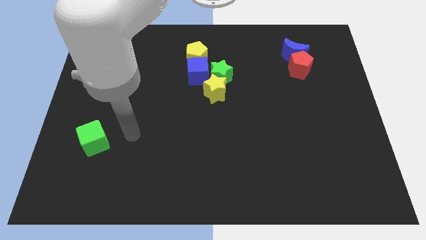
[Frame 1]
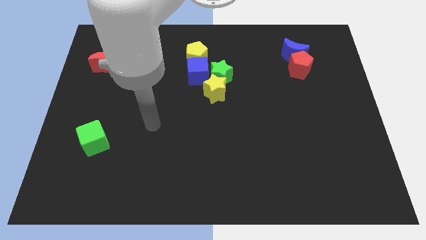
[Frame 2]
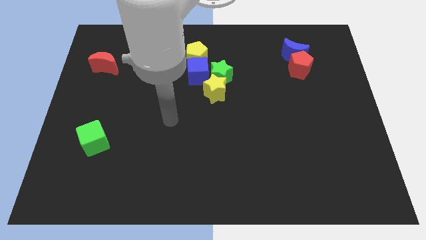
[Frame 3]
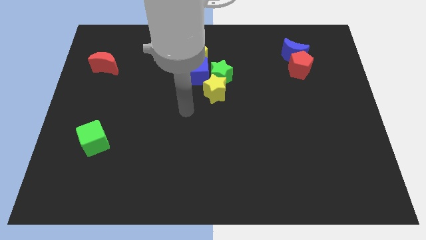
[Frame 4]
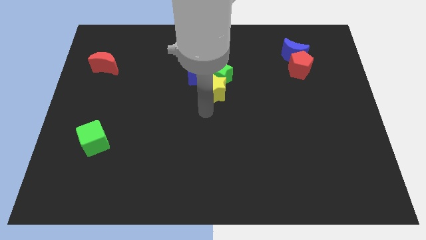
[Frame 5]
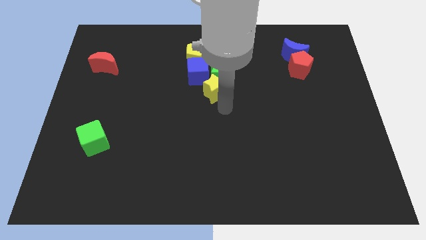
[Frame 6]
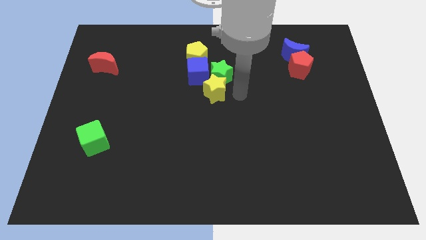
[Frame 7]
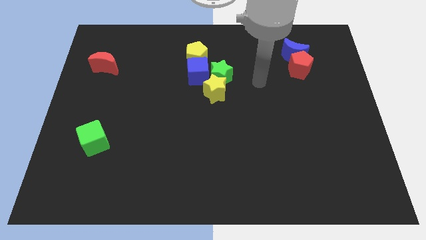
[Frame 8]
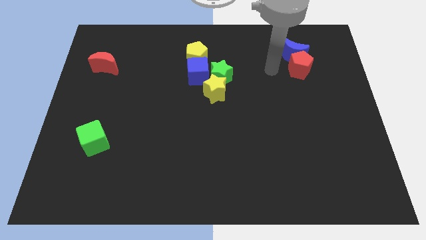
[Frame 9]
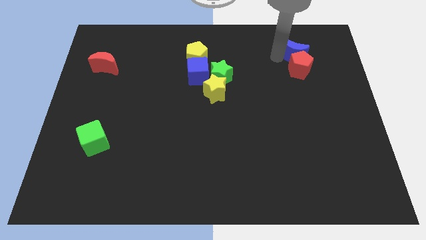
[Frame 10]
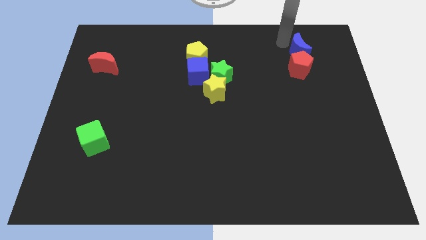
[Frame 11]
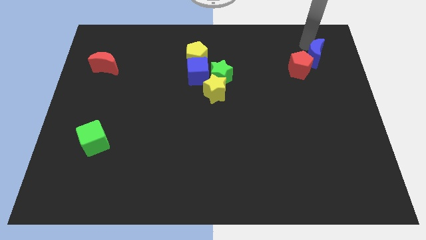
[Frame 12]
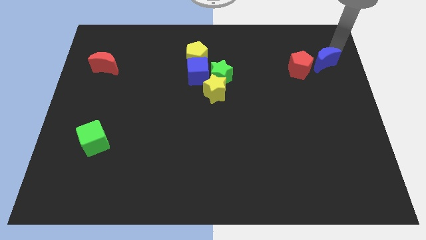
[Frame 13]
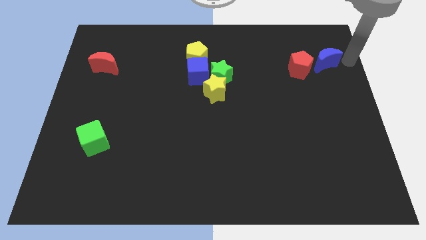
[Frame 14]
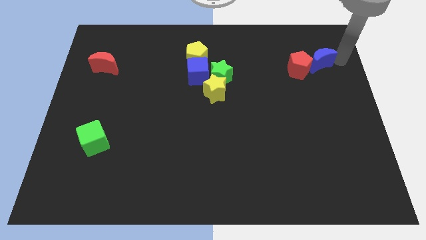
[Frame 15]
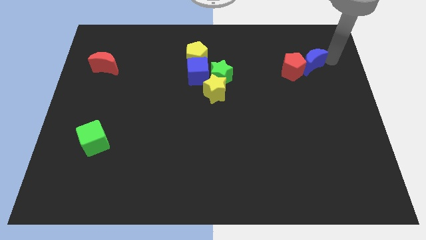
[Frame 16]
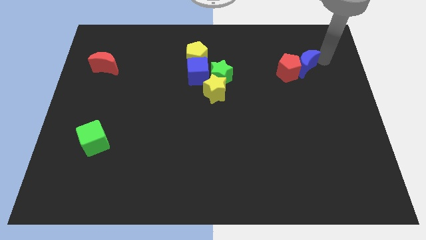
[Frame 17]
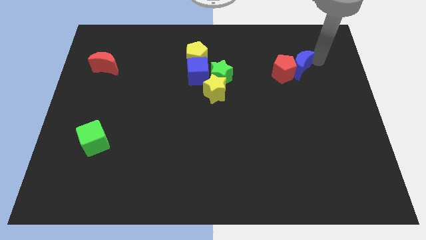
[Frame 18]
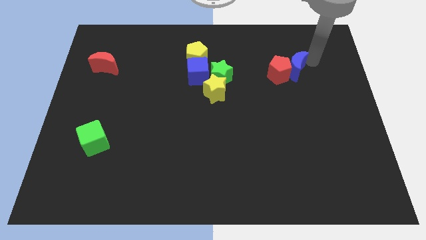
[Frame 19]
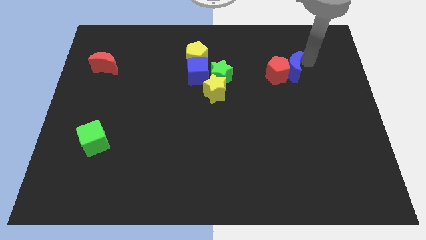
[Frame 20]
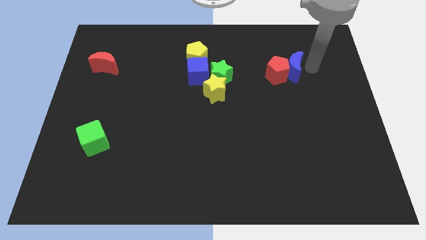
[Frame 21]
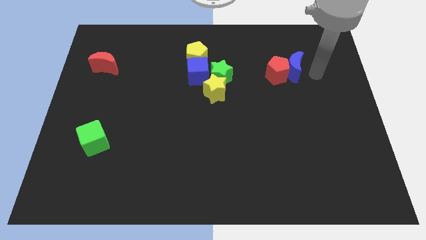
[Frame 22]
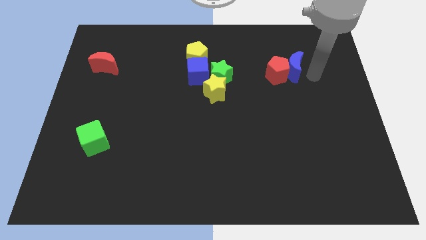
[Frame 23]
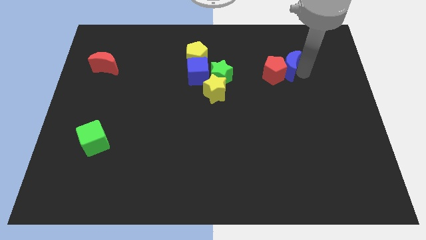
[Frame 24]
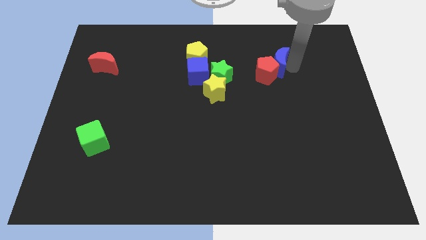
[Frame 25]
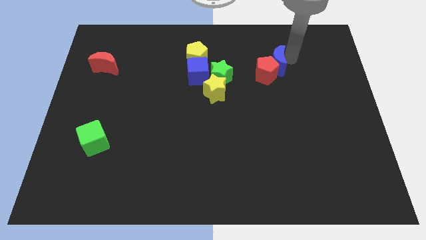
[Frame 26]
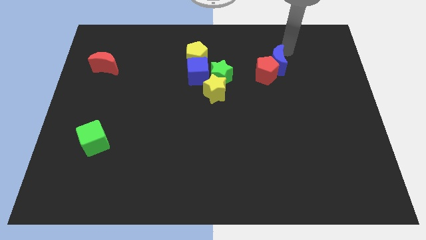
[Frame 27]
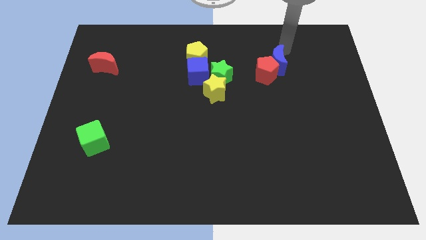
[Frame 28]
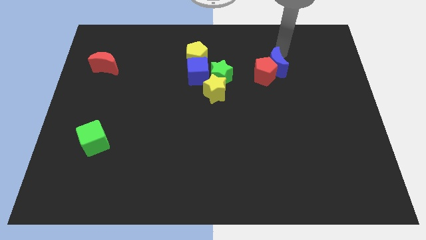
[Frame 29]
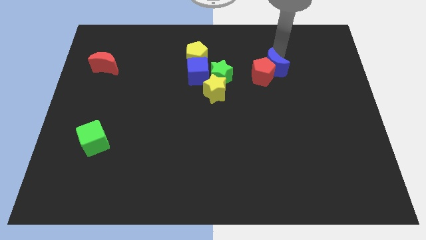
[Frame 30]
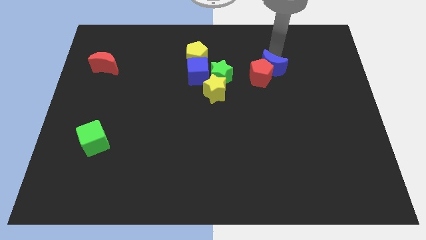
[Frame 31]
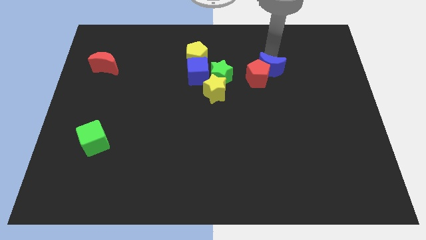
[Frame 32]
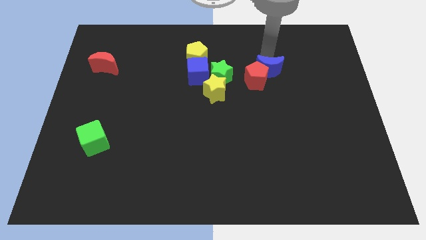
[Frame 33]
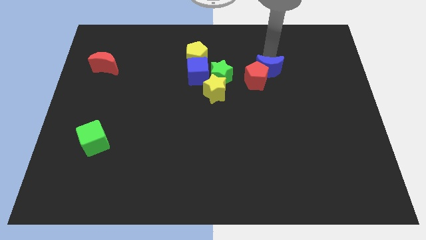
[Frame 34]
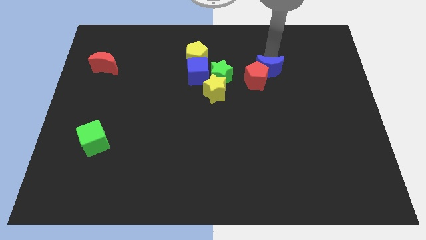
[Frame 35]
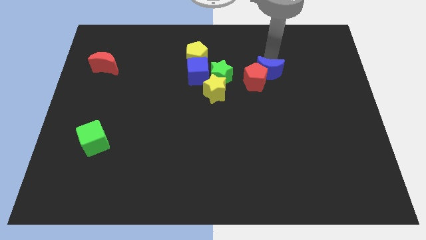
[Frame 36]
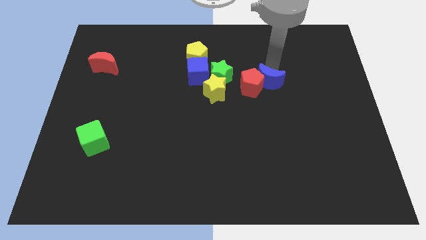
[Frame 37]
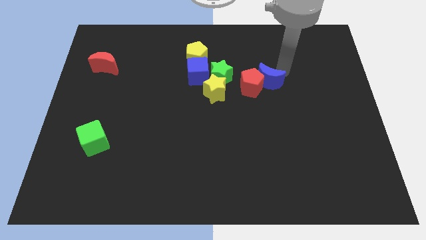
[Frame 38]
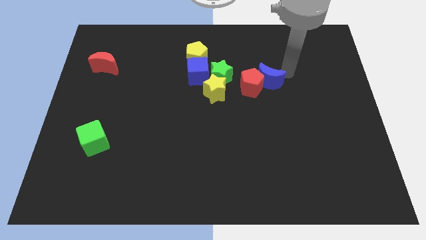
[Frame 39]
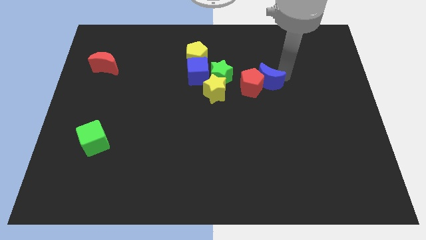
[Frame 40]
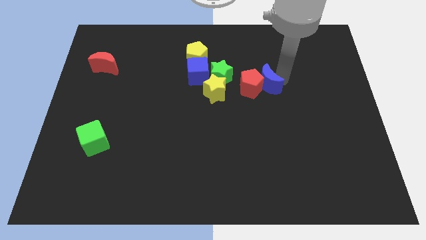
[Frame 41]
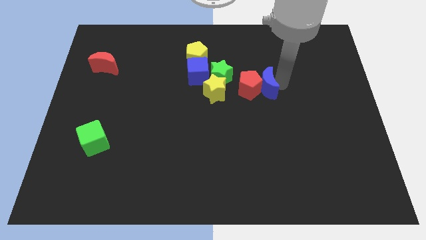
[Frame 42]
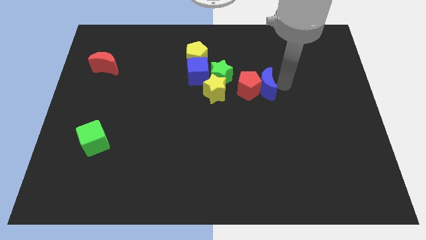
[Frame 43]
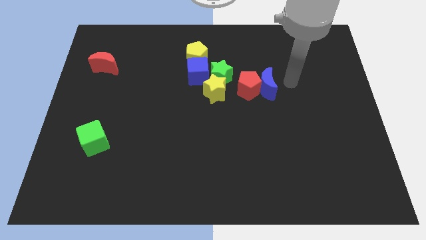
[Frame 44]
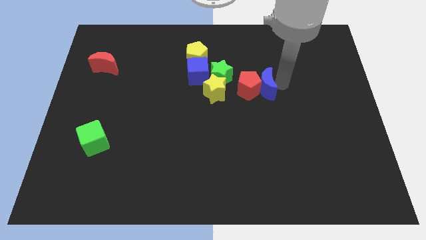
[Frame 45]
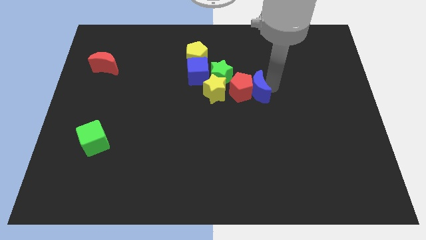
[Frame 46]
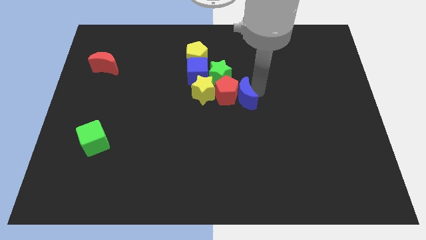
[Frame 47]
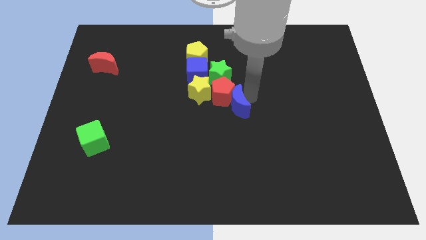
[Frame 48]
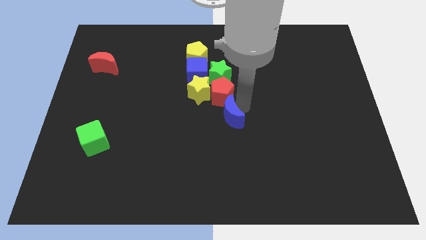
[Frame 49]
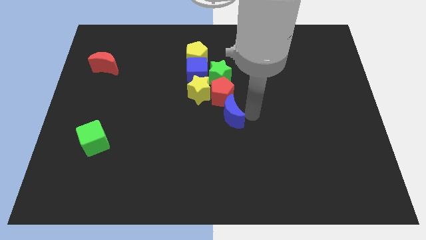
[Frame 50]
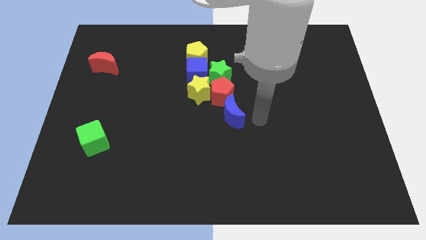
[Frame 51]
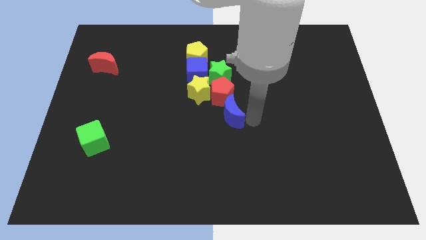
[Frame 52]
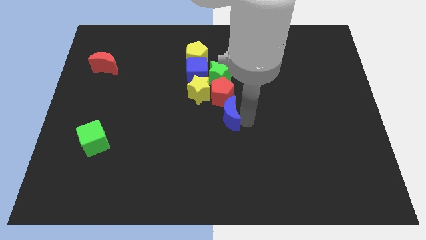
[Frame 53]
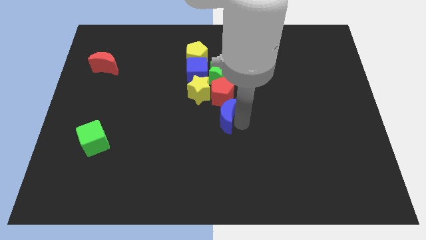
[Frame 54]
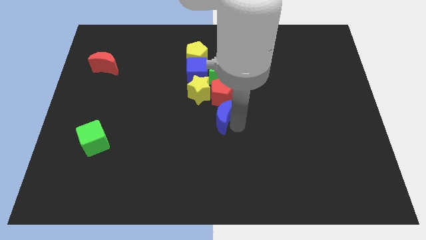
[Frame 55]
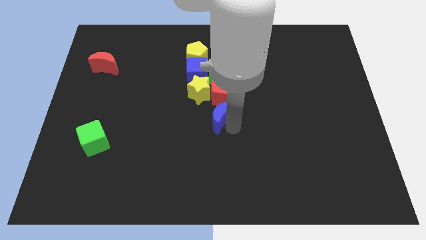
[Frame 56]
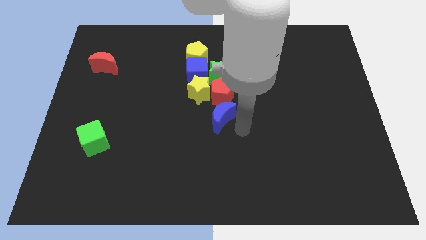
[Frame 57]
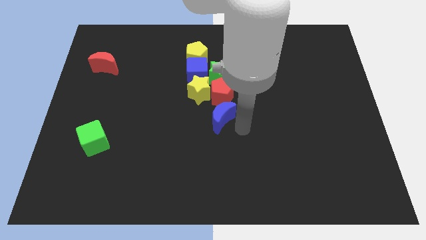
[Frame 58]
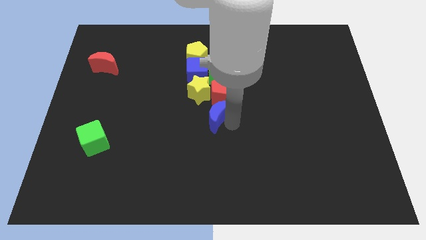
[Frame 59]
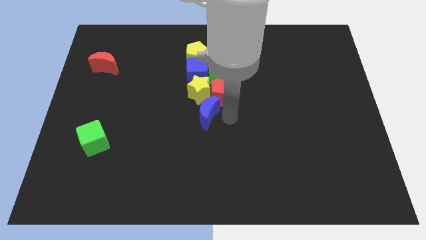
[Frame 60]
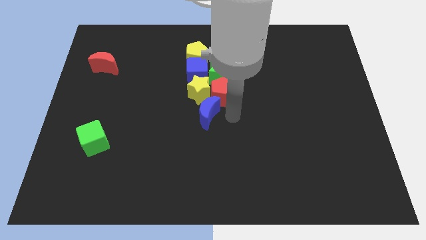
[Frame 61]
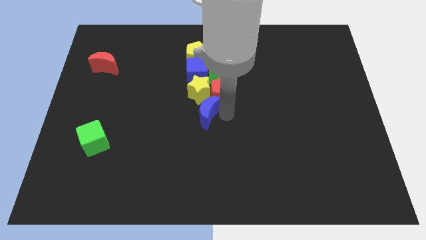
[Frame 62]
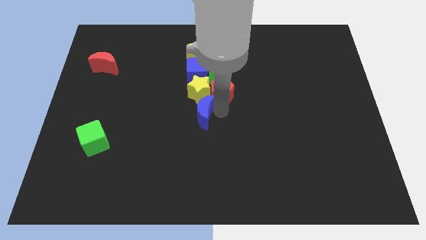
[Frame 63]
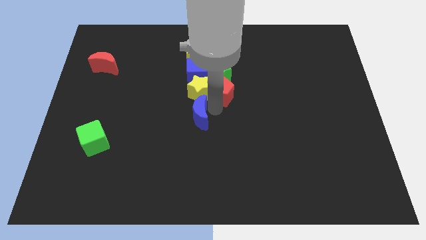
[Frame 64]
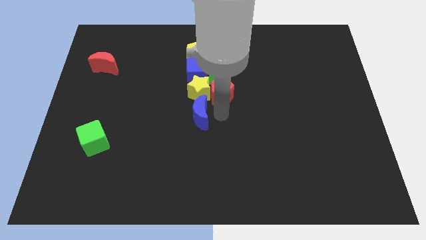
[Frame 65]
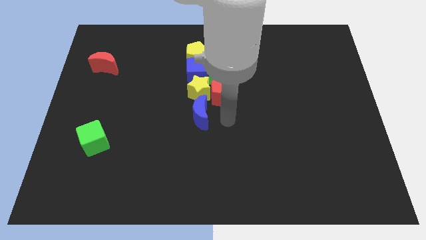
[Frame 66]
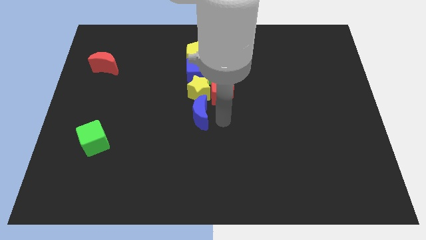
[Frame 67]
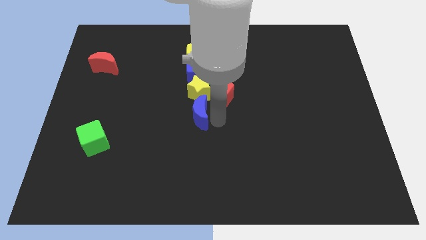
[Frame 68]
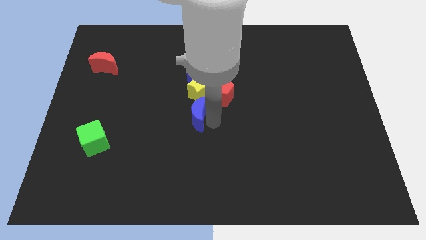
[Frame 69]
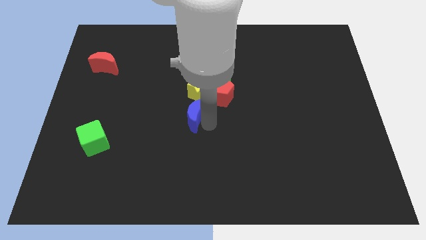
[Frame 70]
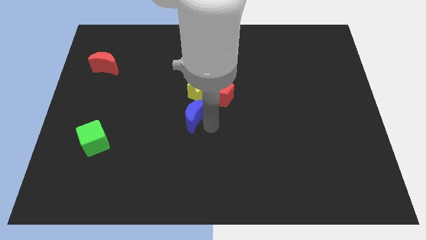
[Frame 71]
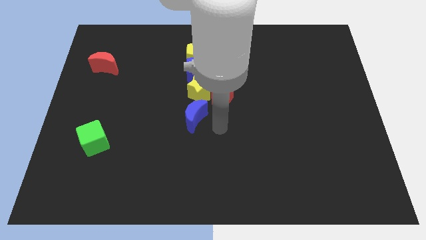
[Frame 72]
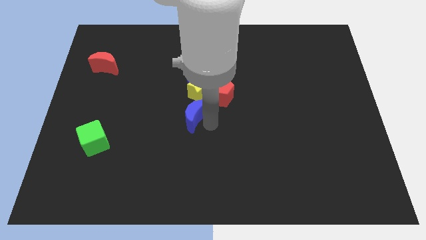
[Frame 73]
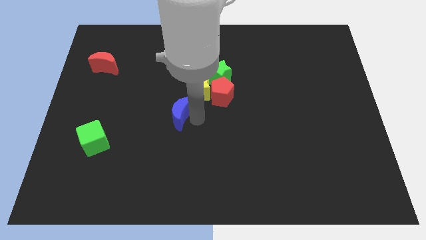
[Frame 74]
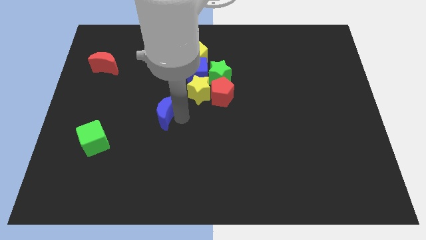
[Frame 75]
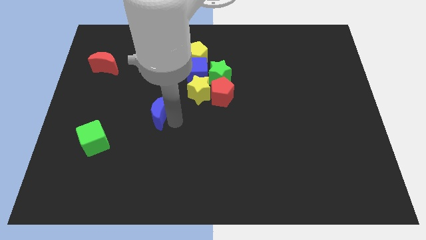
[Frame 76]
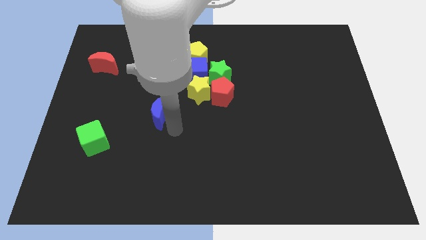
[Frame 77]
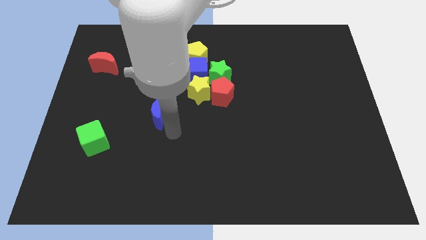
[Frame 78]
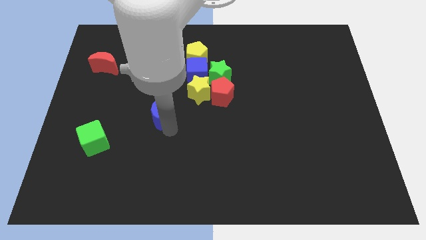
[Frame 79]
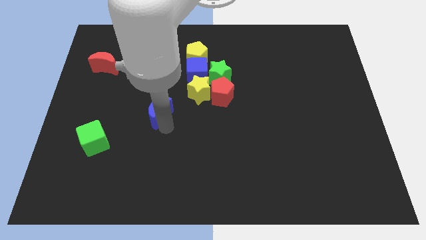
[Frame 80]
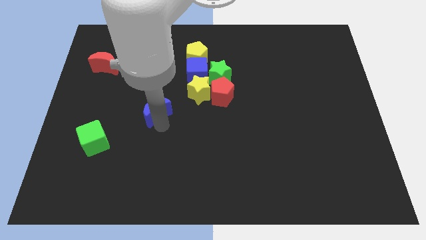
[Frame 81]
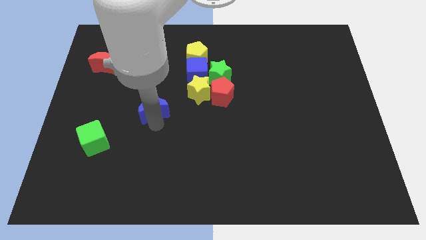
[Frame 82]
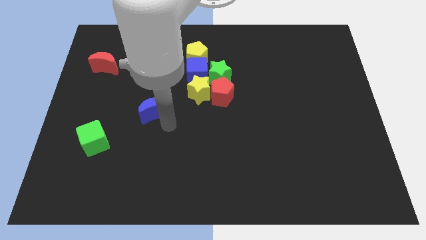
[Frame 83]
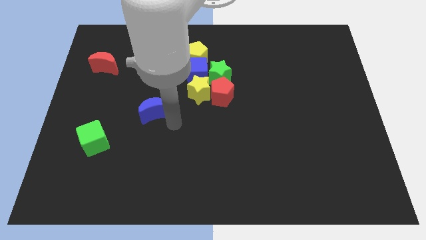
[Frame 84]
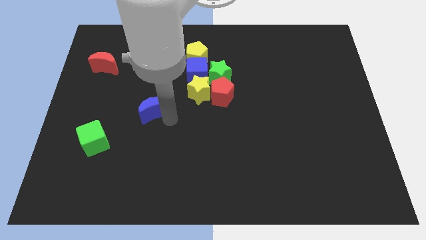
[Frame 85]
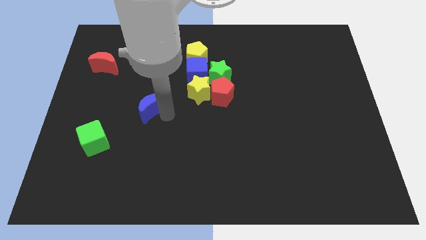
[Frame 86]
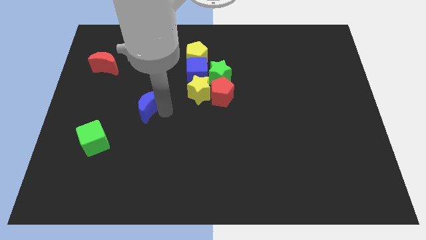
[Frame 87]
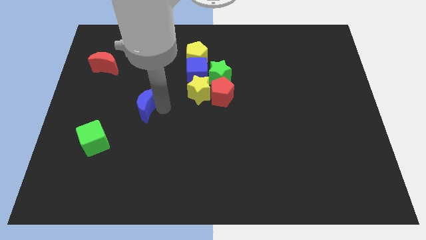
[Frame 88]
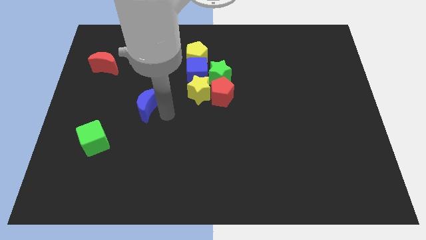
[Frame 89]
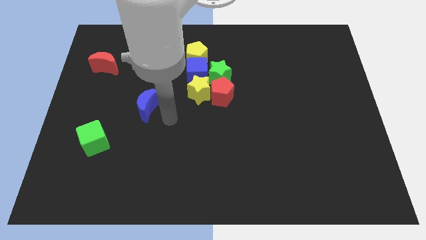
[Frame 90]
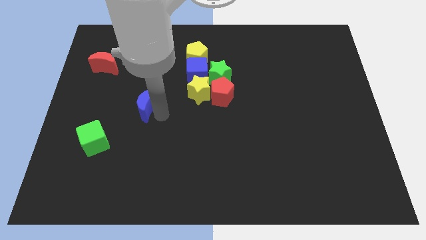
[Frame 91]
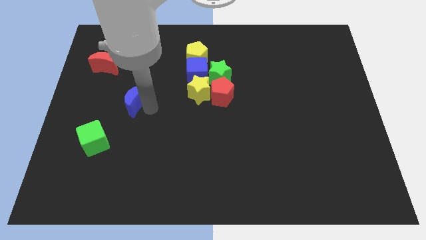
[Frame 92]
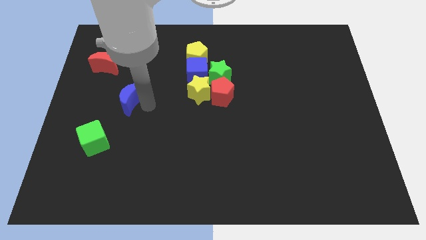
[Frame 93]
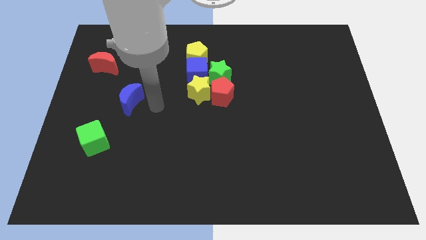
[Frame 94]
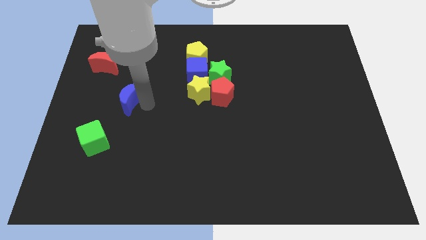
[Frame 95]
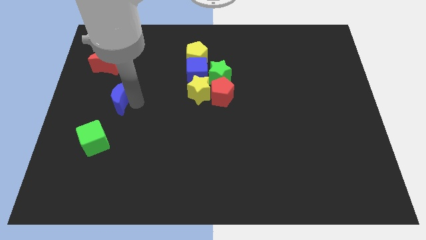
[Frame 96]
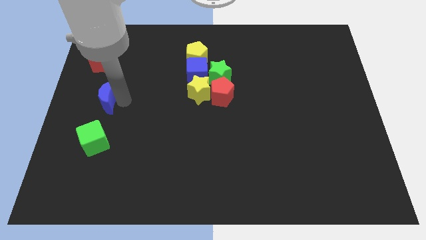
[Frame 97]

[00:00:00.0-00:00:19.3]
move the blue moon to the left side
